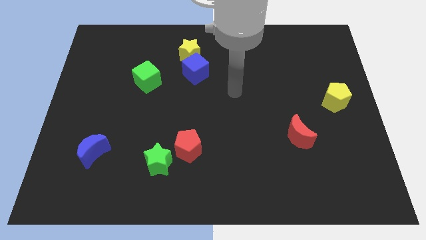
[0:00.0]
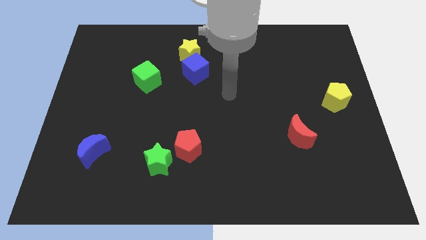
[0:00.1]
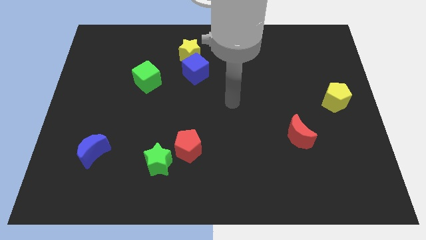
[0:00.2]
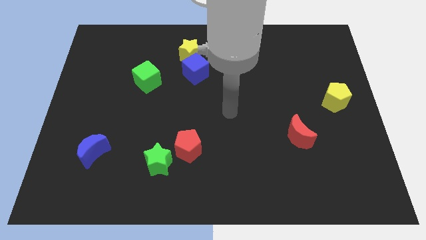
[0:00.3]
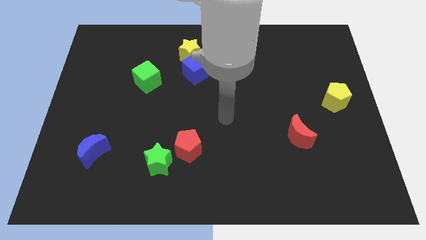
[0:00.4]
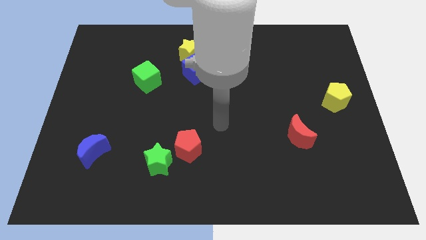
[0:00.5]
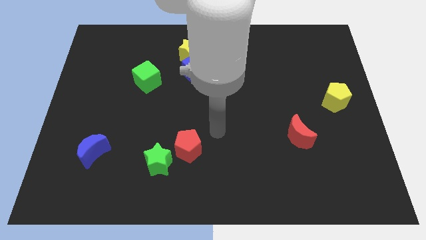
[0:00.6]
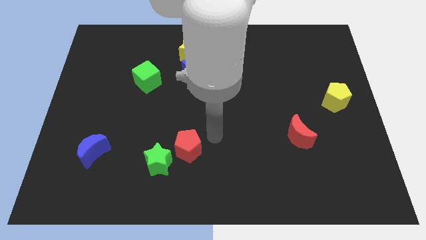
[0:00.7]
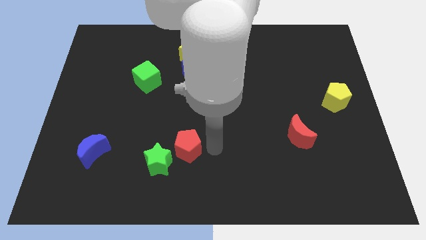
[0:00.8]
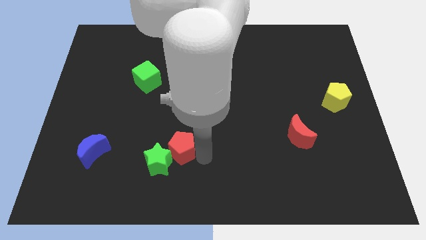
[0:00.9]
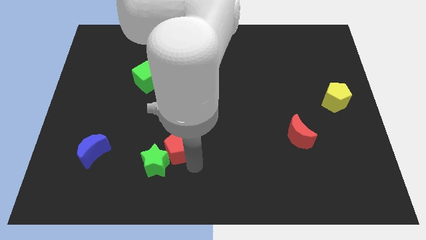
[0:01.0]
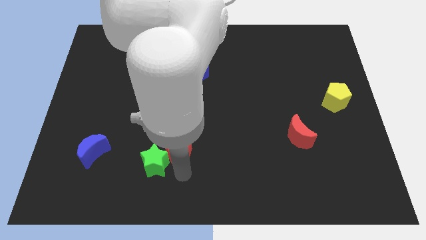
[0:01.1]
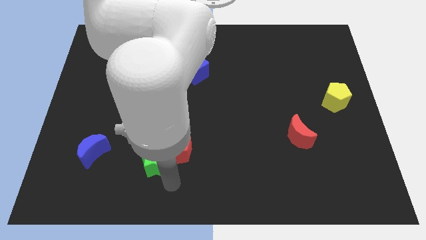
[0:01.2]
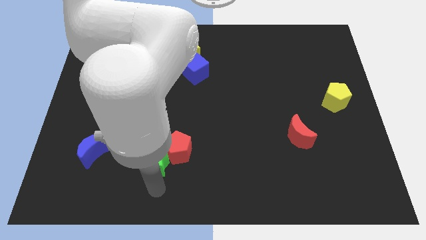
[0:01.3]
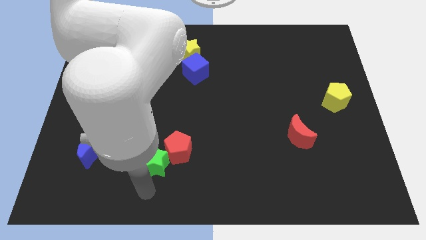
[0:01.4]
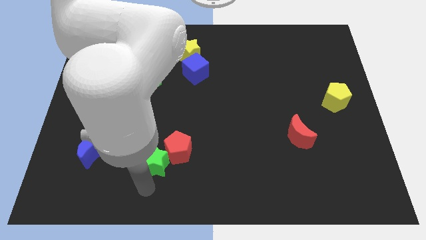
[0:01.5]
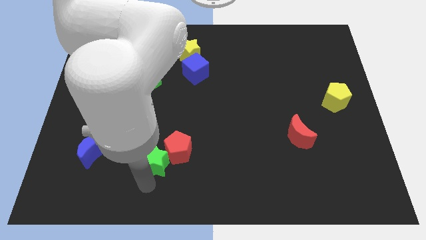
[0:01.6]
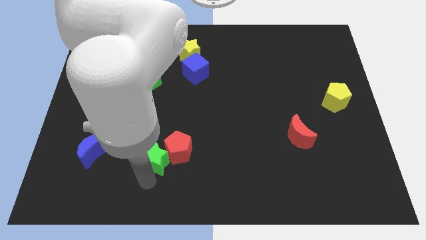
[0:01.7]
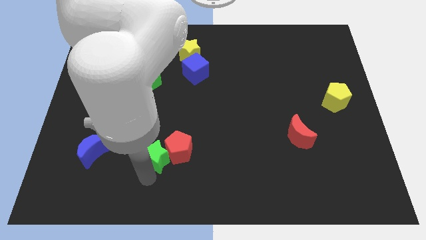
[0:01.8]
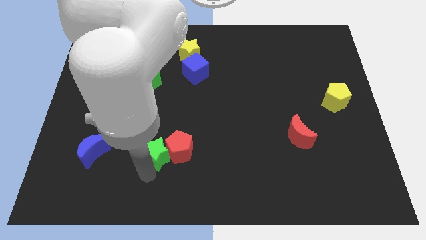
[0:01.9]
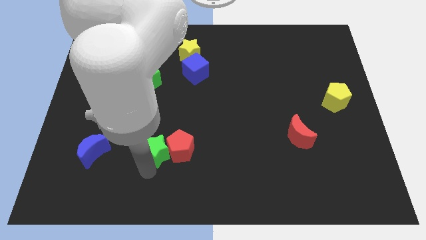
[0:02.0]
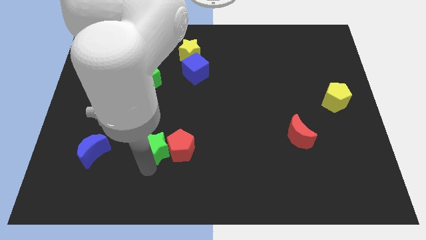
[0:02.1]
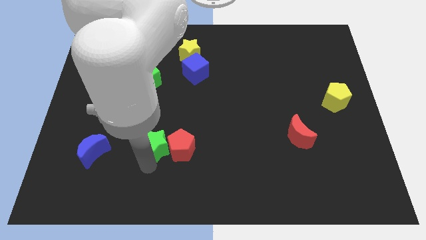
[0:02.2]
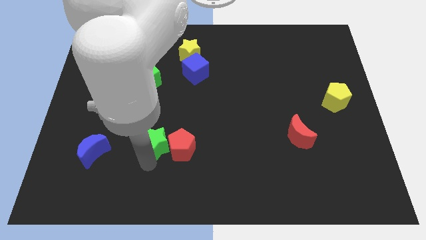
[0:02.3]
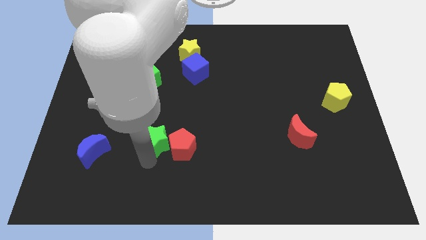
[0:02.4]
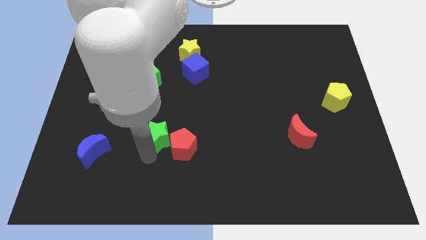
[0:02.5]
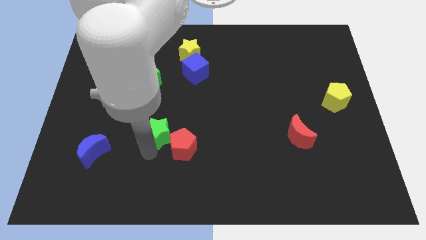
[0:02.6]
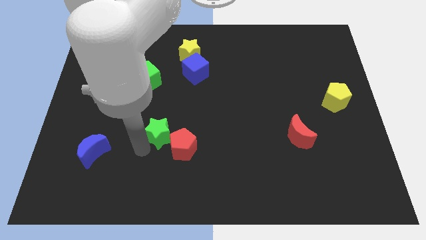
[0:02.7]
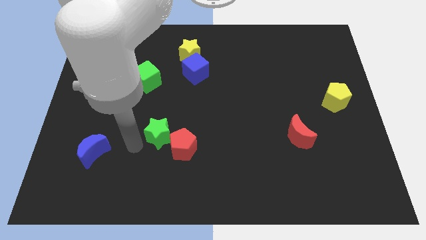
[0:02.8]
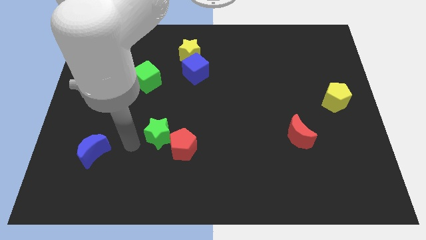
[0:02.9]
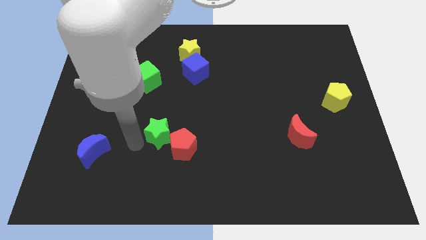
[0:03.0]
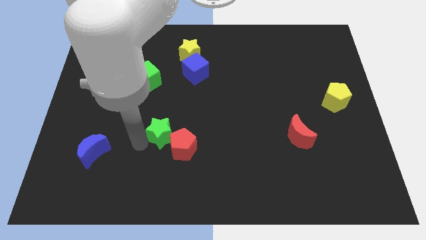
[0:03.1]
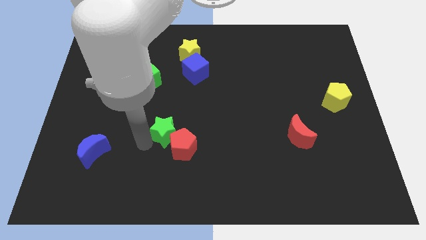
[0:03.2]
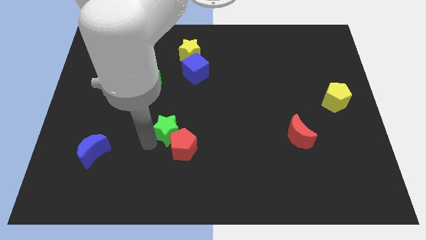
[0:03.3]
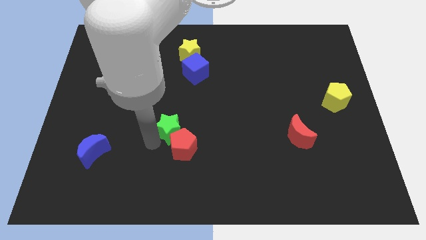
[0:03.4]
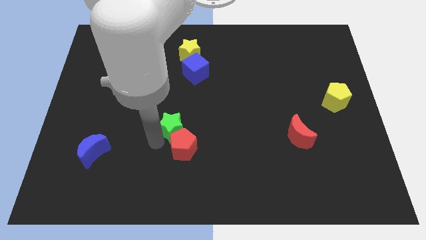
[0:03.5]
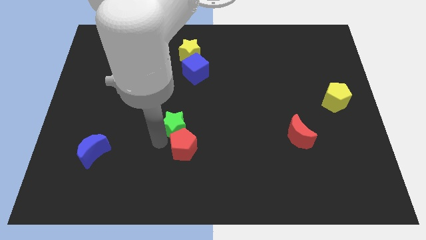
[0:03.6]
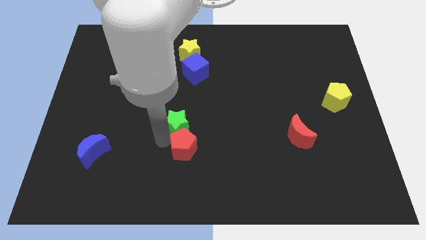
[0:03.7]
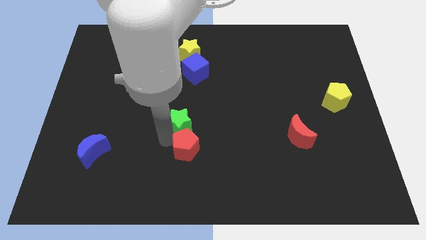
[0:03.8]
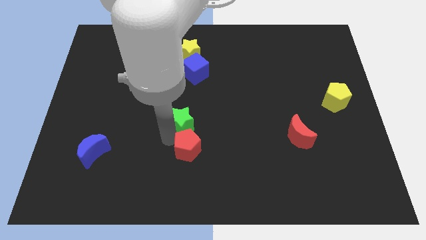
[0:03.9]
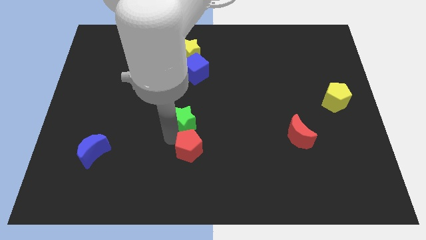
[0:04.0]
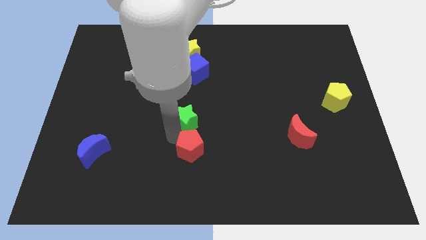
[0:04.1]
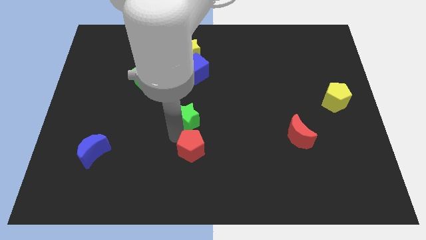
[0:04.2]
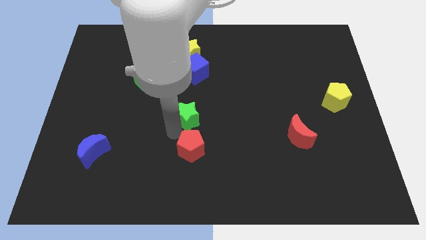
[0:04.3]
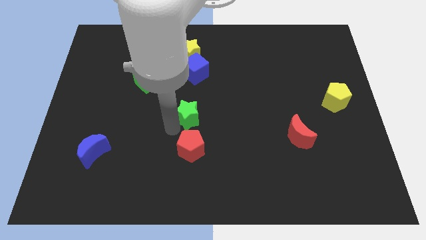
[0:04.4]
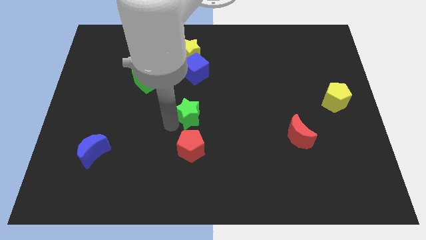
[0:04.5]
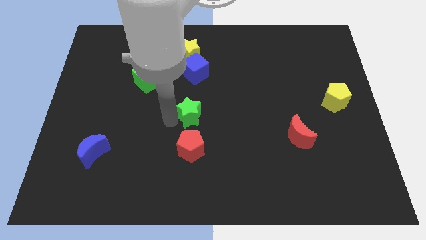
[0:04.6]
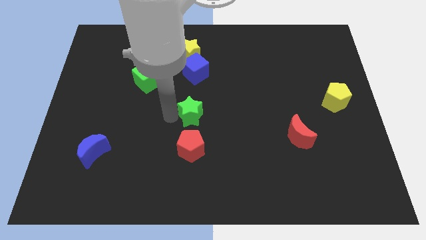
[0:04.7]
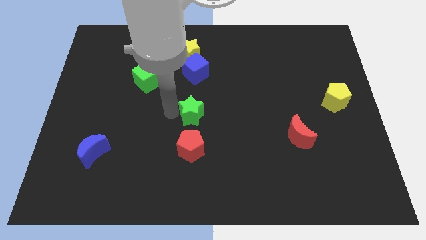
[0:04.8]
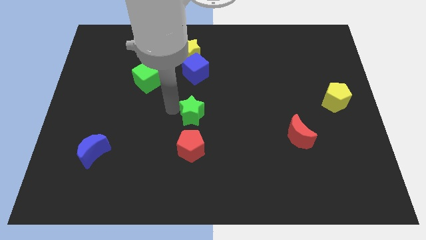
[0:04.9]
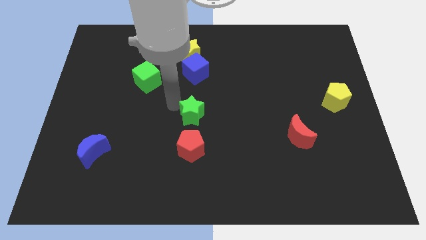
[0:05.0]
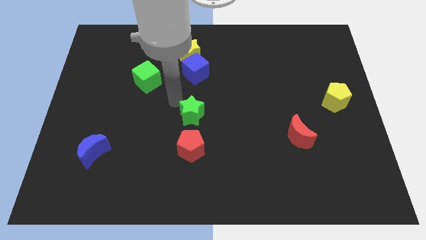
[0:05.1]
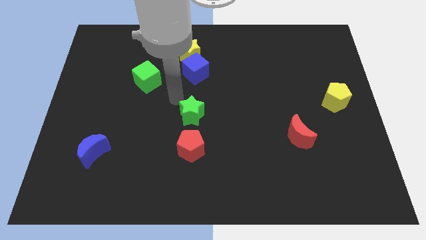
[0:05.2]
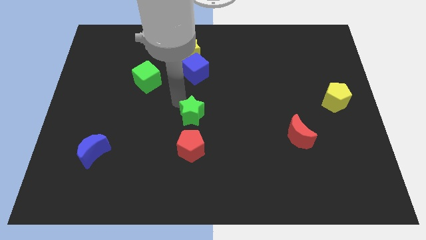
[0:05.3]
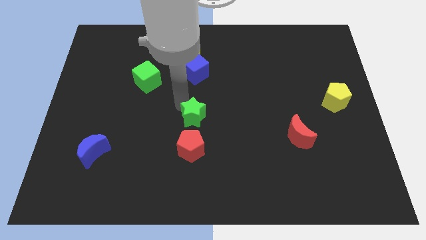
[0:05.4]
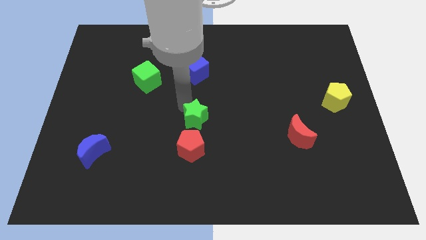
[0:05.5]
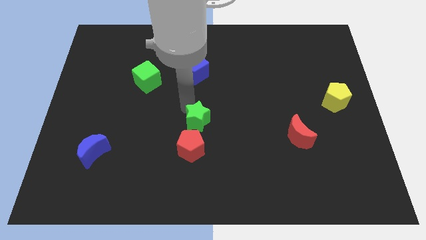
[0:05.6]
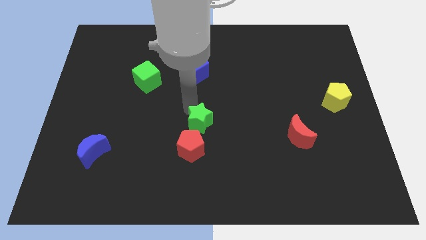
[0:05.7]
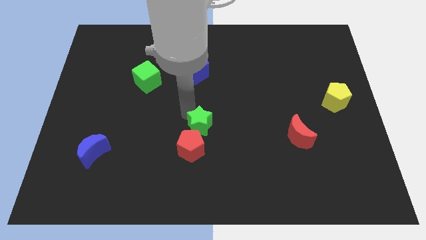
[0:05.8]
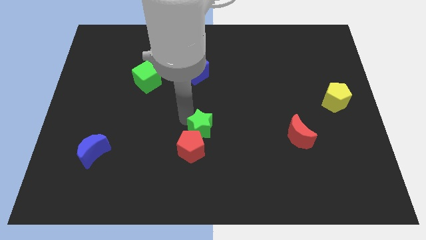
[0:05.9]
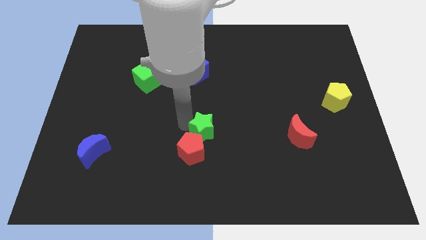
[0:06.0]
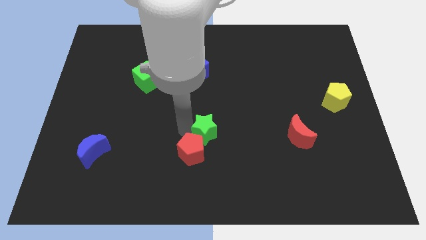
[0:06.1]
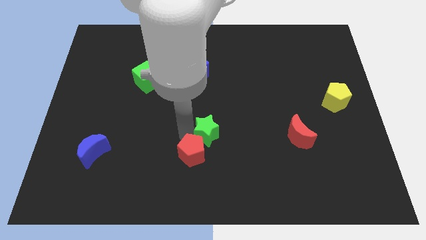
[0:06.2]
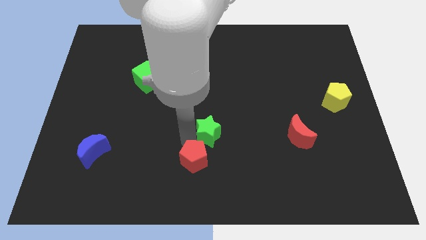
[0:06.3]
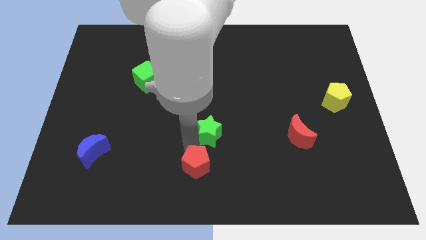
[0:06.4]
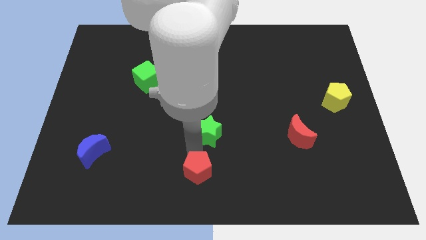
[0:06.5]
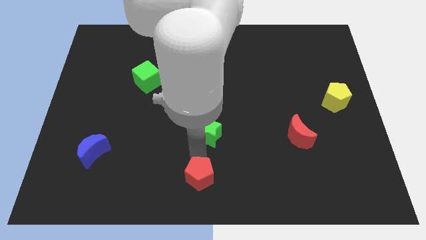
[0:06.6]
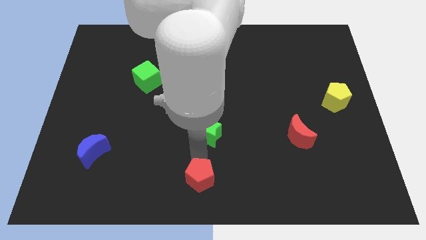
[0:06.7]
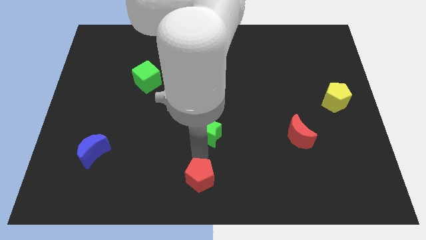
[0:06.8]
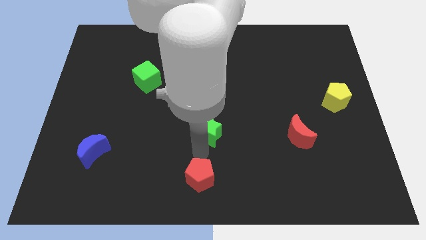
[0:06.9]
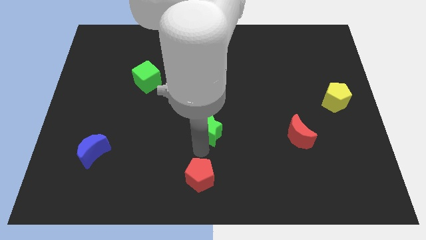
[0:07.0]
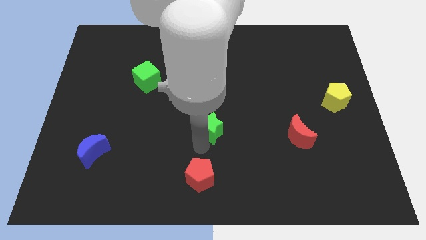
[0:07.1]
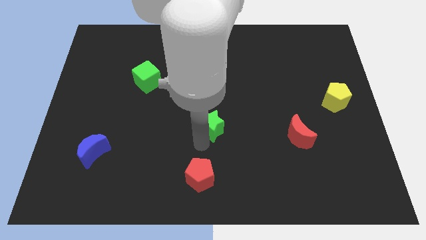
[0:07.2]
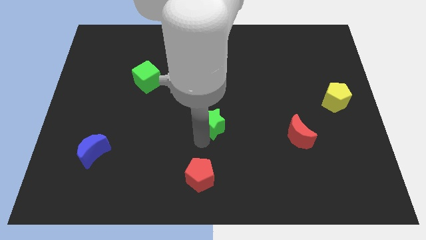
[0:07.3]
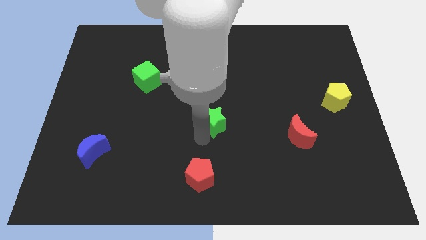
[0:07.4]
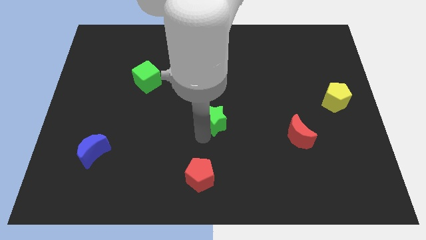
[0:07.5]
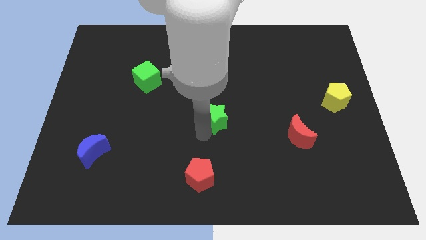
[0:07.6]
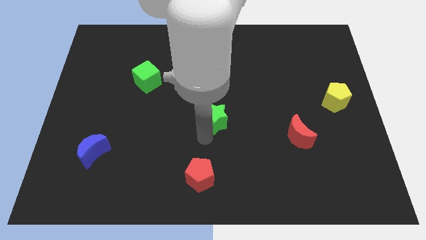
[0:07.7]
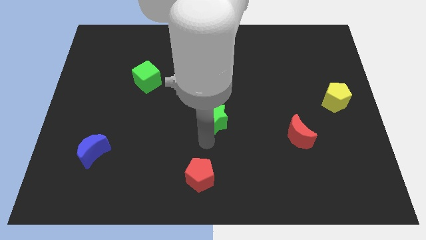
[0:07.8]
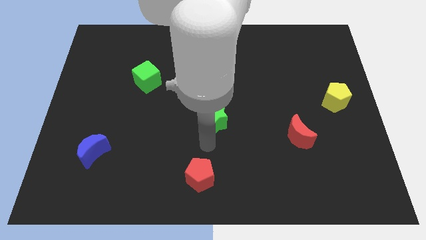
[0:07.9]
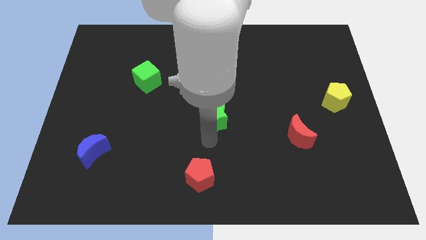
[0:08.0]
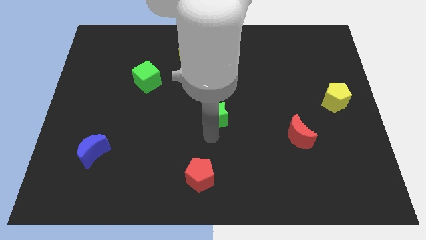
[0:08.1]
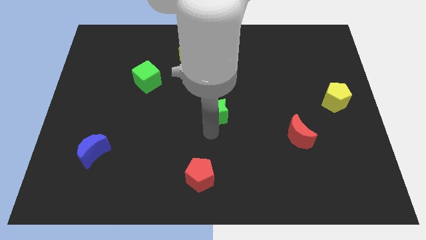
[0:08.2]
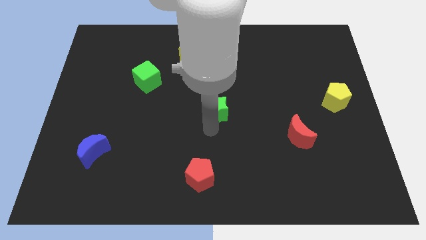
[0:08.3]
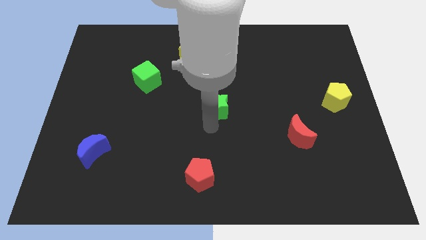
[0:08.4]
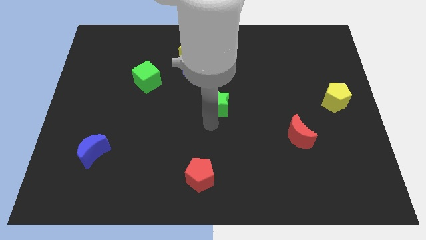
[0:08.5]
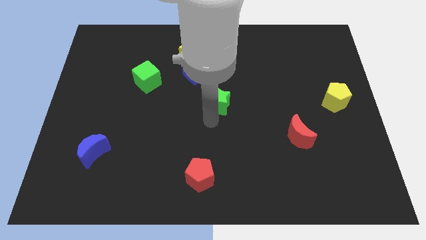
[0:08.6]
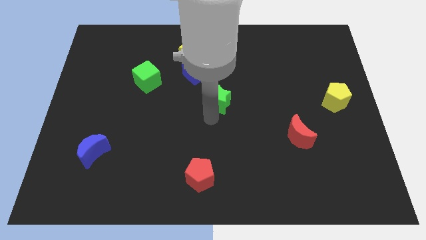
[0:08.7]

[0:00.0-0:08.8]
move the green star up and right diagonally
